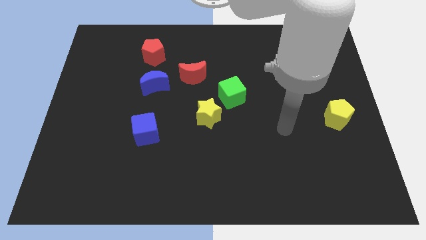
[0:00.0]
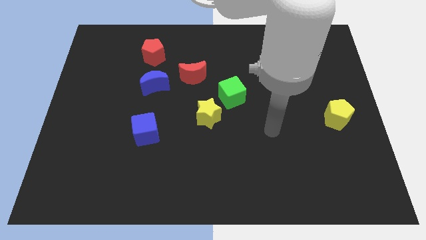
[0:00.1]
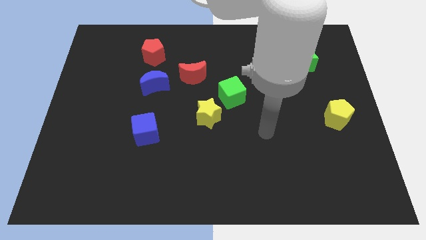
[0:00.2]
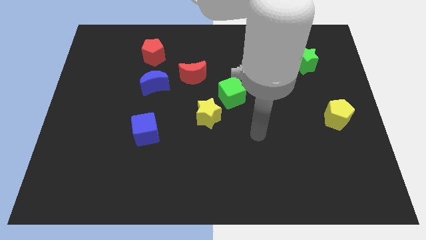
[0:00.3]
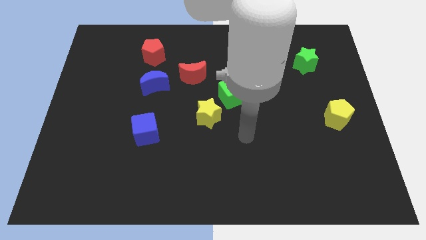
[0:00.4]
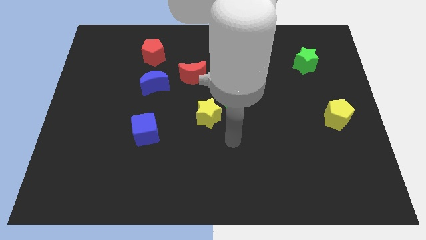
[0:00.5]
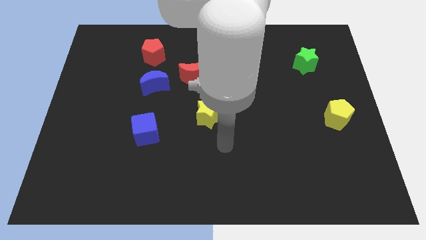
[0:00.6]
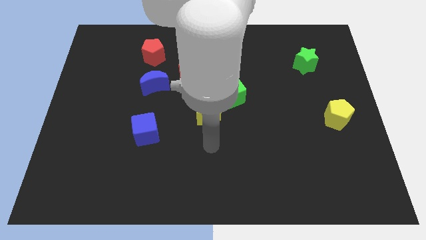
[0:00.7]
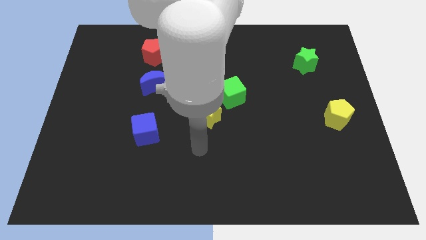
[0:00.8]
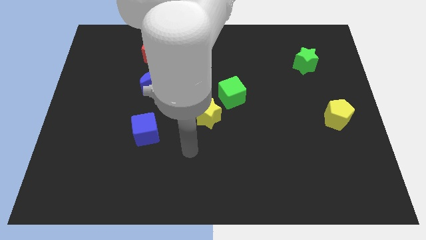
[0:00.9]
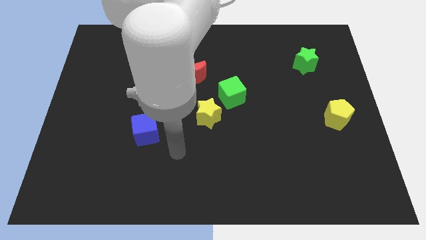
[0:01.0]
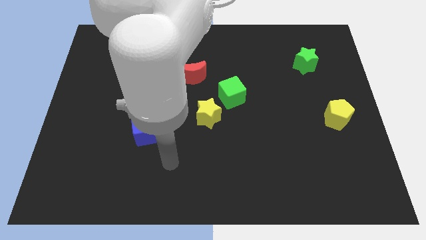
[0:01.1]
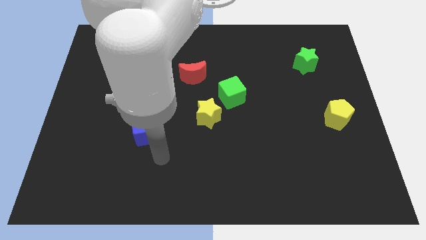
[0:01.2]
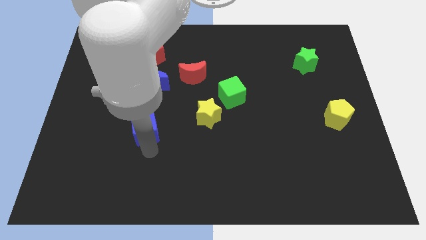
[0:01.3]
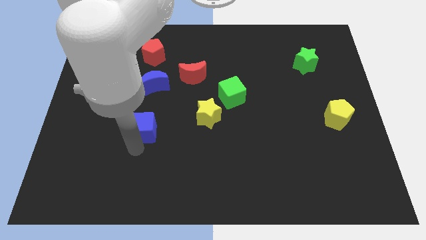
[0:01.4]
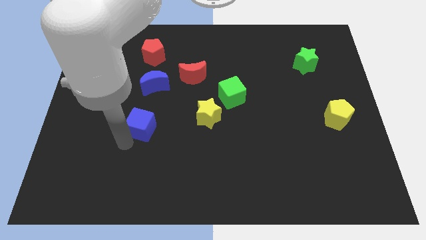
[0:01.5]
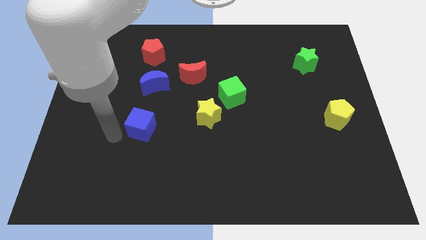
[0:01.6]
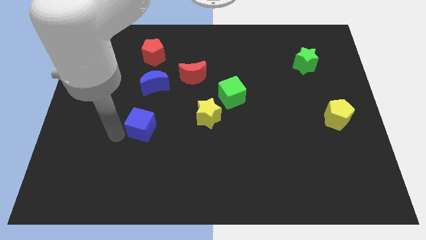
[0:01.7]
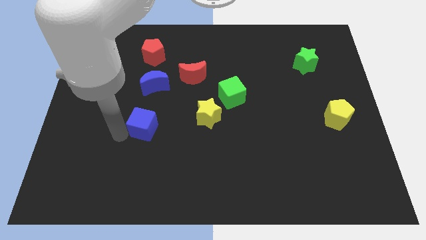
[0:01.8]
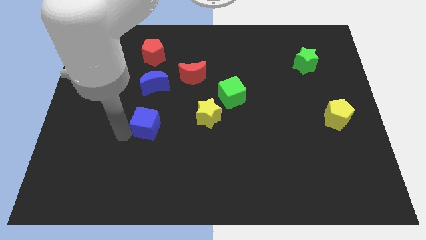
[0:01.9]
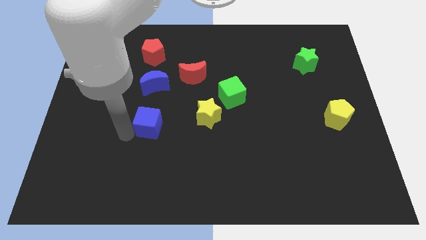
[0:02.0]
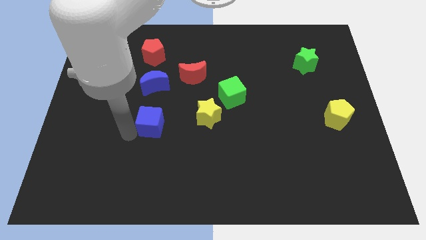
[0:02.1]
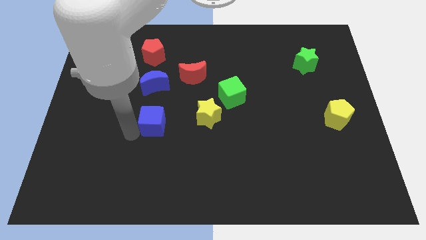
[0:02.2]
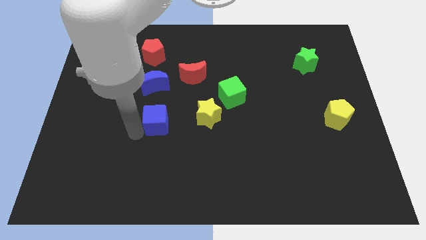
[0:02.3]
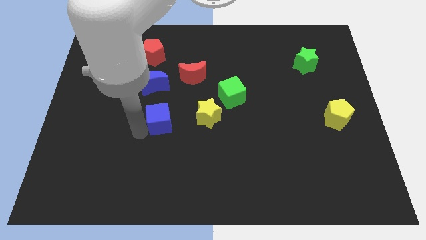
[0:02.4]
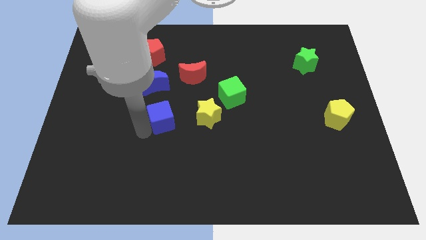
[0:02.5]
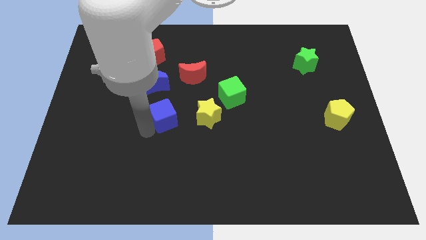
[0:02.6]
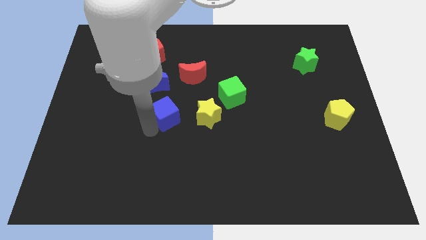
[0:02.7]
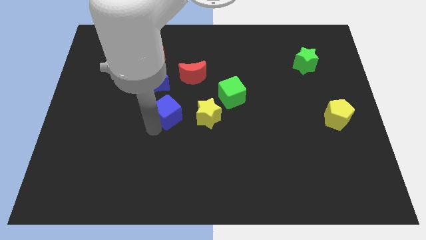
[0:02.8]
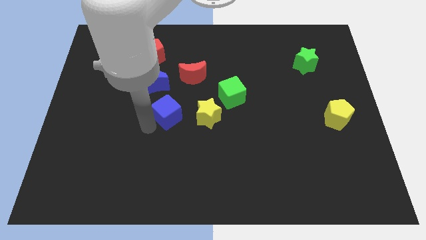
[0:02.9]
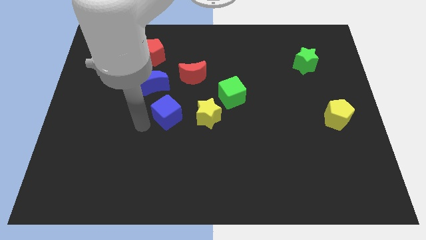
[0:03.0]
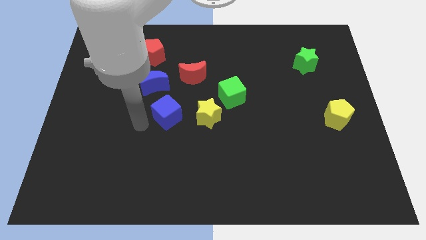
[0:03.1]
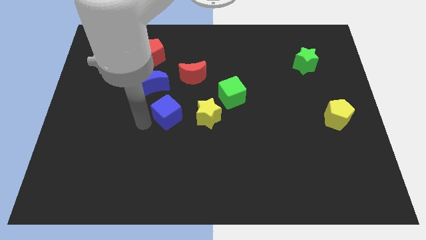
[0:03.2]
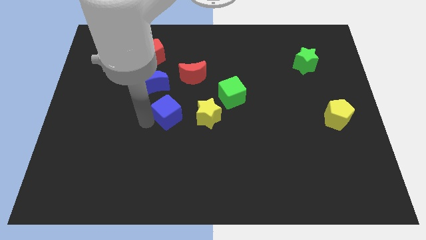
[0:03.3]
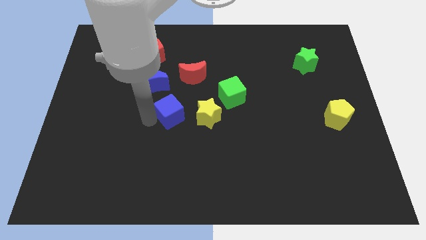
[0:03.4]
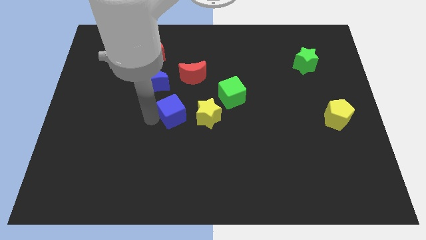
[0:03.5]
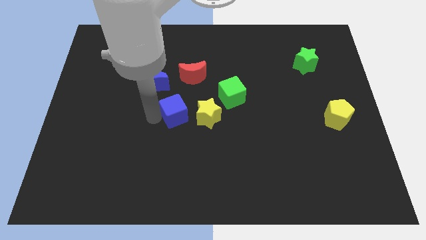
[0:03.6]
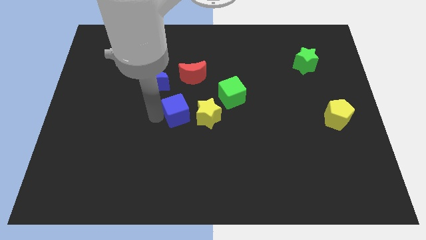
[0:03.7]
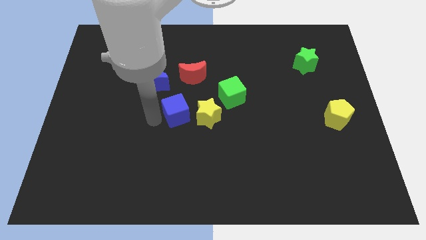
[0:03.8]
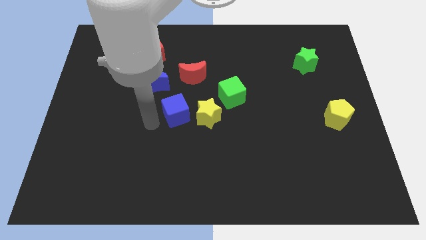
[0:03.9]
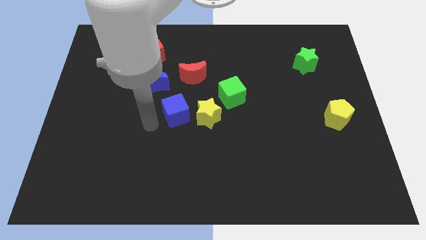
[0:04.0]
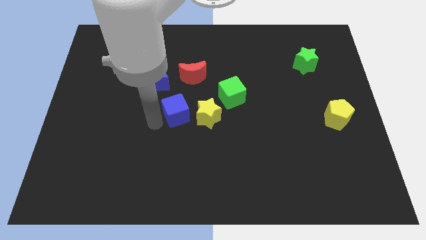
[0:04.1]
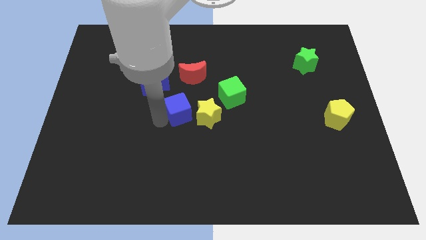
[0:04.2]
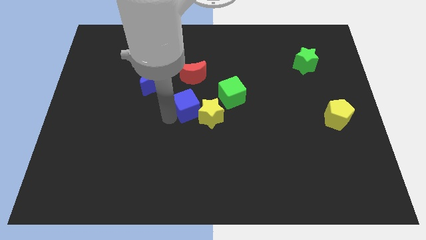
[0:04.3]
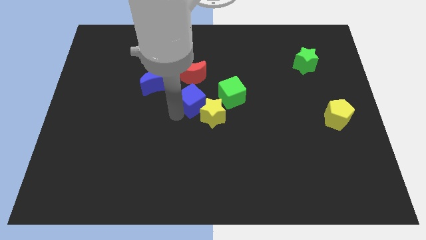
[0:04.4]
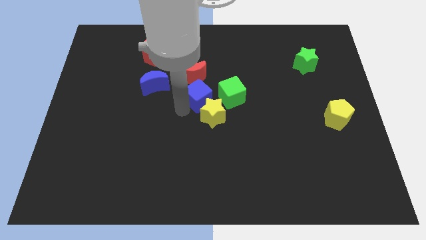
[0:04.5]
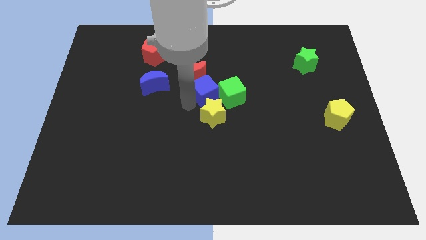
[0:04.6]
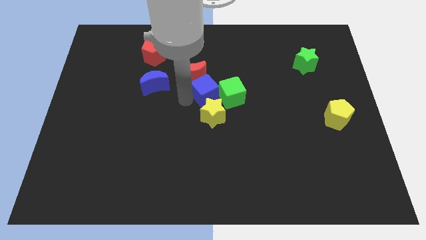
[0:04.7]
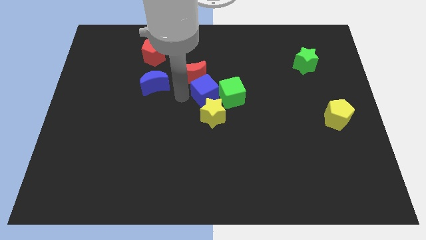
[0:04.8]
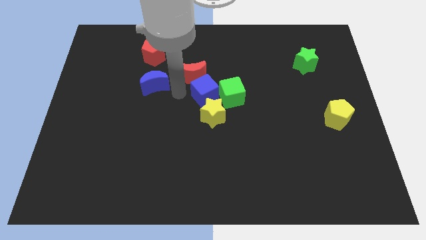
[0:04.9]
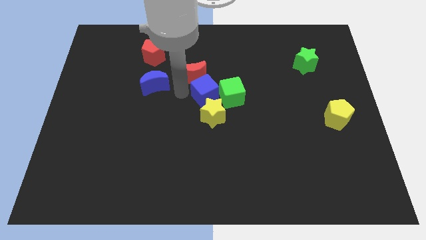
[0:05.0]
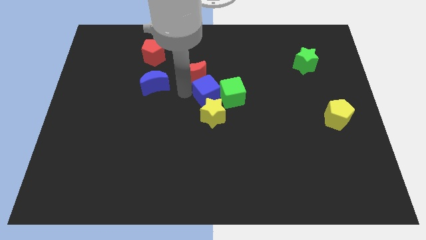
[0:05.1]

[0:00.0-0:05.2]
move the blue cube towards the green cube

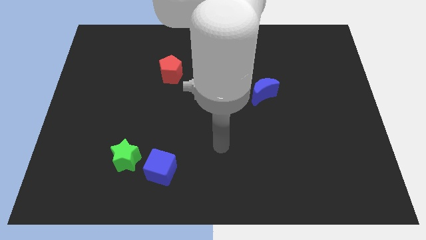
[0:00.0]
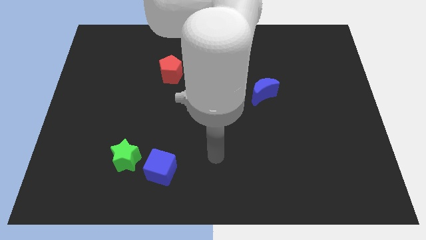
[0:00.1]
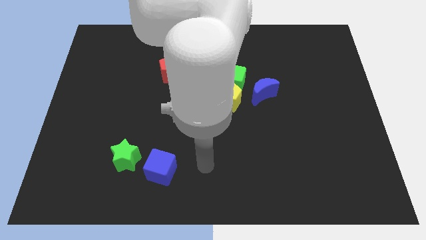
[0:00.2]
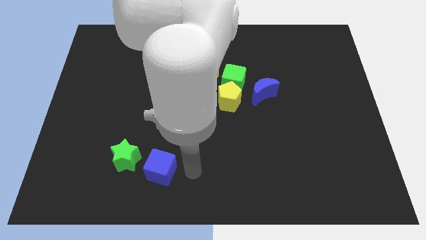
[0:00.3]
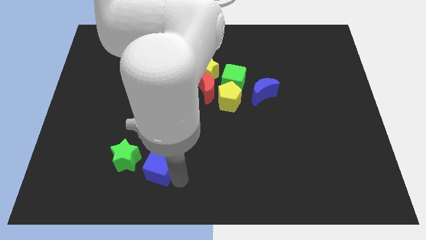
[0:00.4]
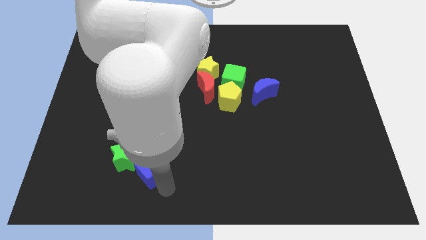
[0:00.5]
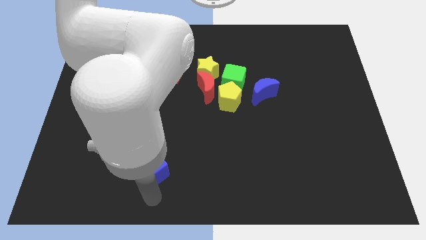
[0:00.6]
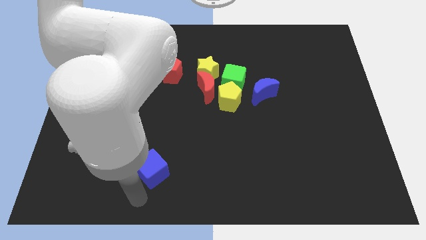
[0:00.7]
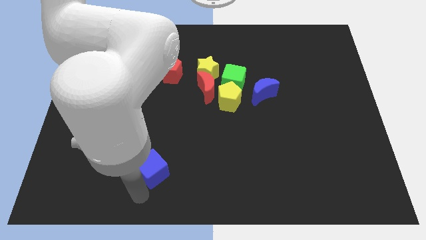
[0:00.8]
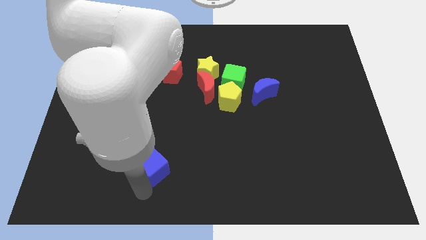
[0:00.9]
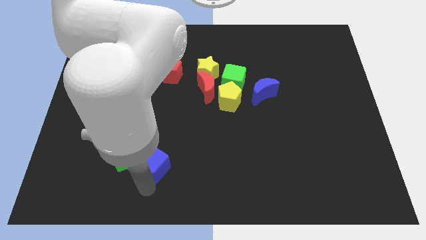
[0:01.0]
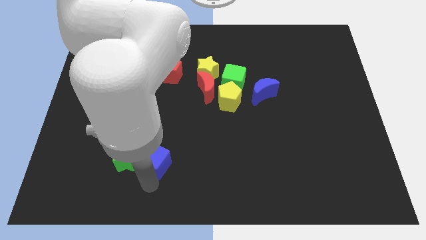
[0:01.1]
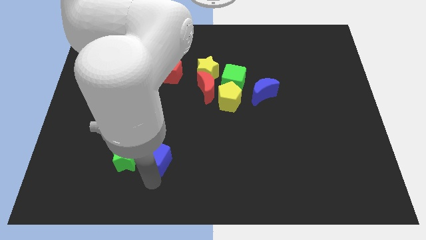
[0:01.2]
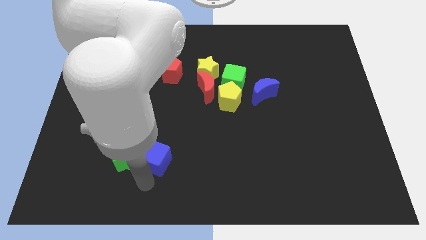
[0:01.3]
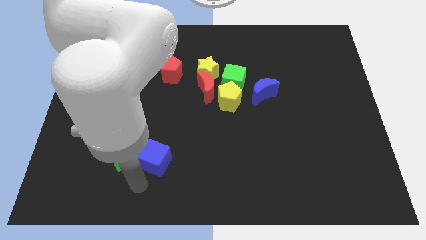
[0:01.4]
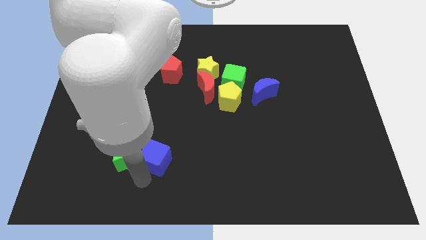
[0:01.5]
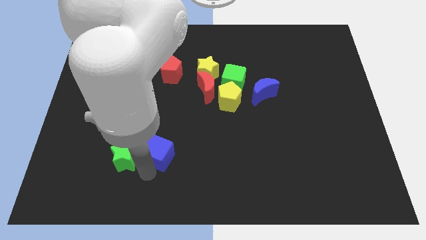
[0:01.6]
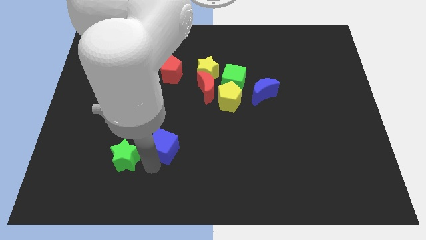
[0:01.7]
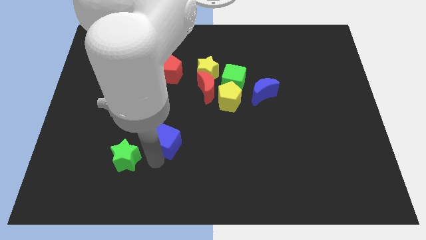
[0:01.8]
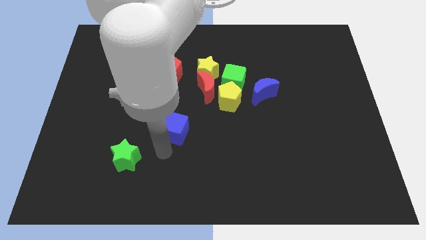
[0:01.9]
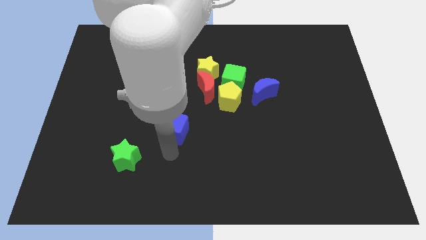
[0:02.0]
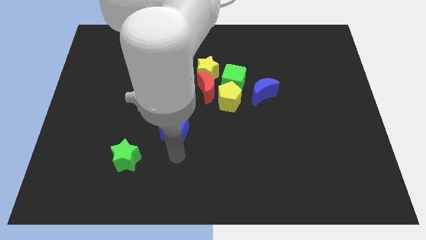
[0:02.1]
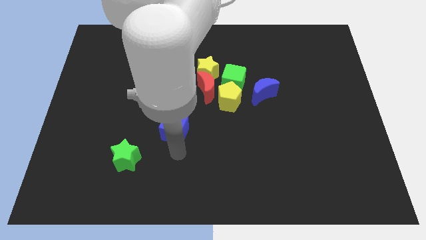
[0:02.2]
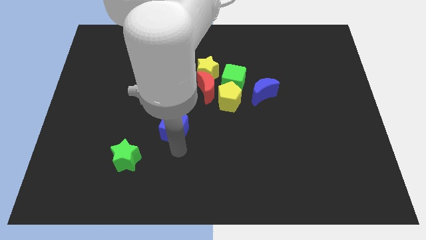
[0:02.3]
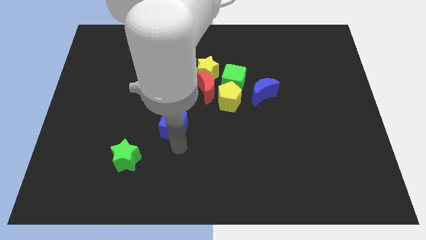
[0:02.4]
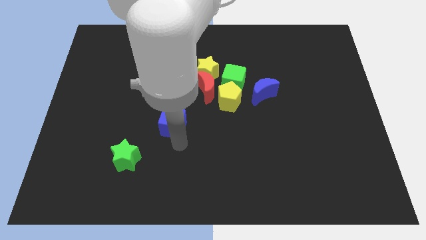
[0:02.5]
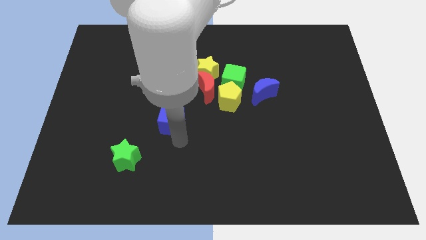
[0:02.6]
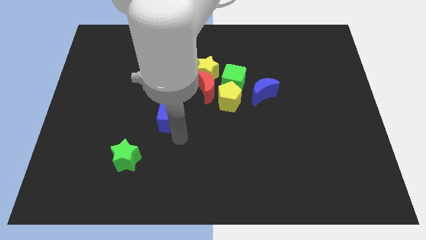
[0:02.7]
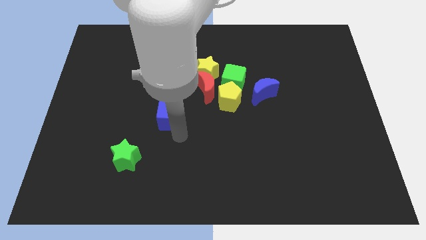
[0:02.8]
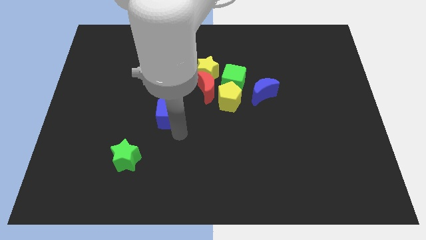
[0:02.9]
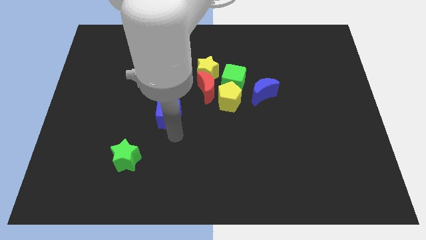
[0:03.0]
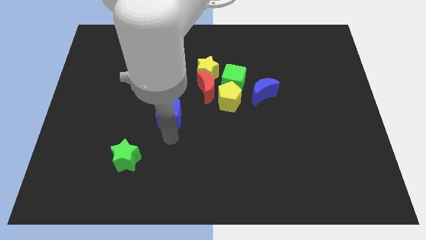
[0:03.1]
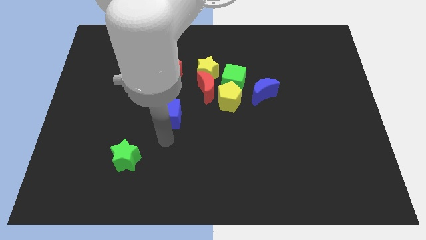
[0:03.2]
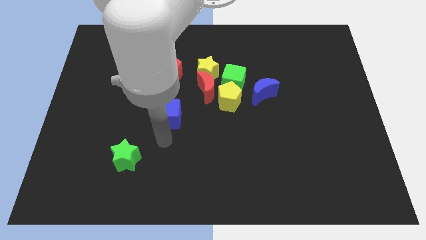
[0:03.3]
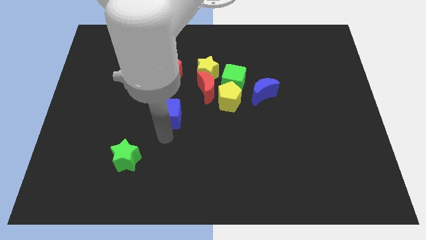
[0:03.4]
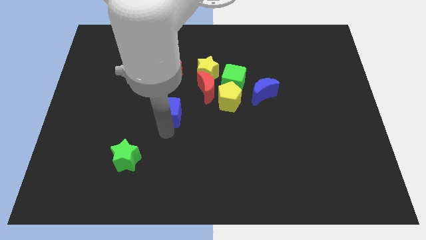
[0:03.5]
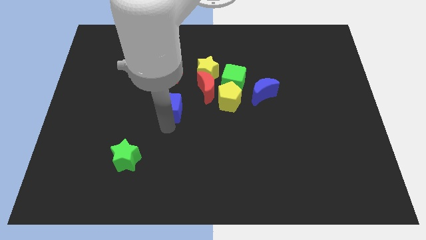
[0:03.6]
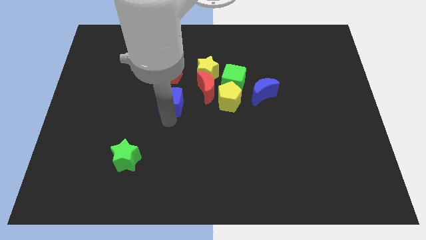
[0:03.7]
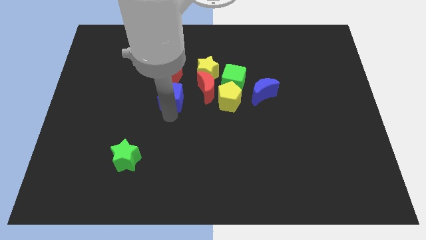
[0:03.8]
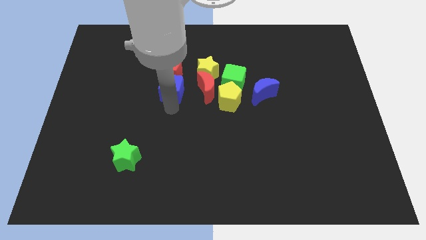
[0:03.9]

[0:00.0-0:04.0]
move the blue cube next to the red pentagon
